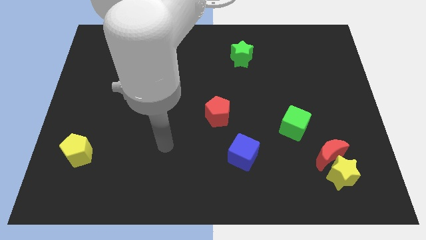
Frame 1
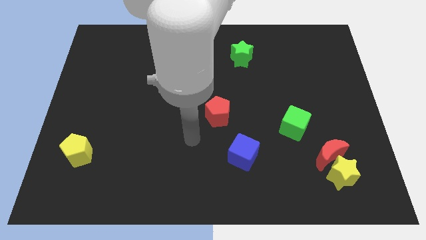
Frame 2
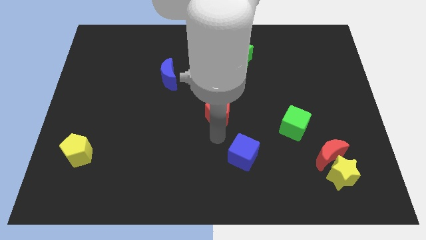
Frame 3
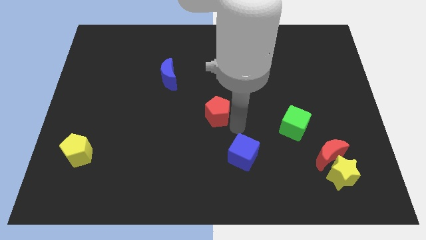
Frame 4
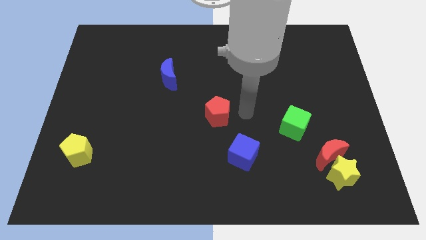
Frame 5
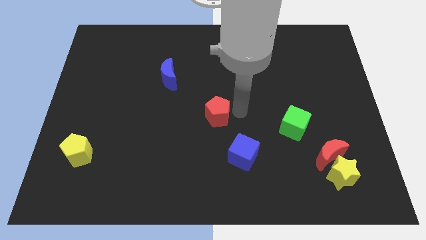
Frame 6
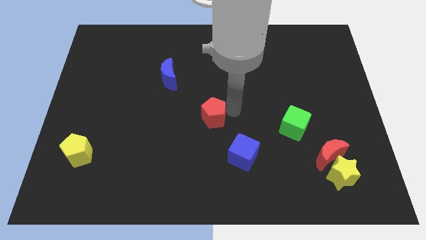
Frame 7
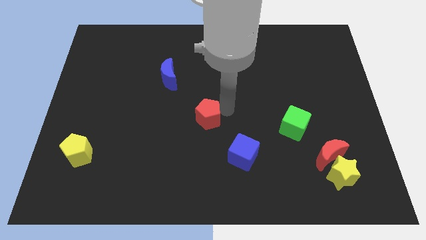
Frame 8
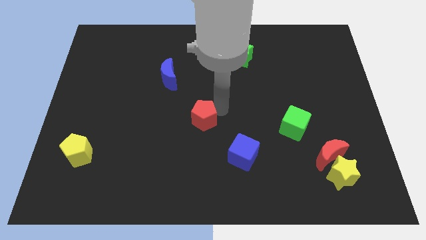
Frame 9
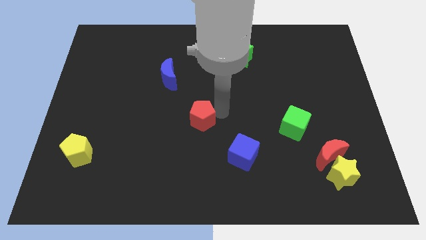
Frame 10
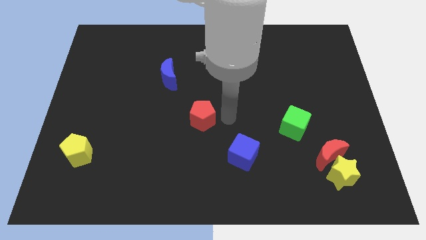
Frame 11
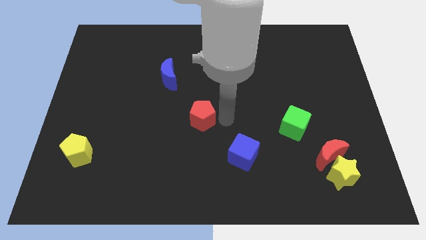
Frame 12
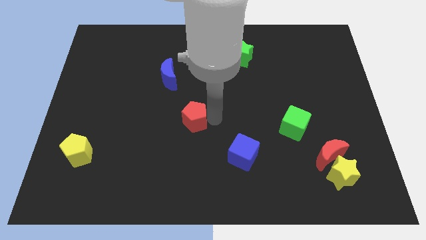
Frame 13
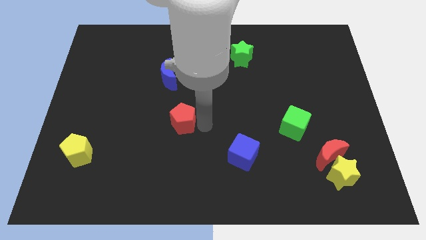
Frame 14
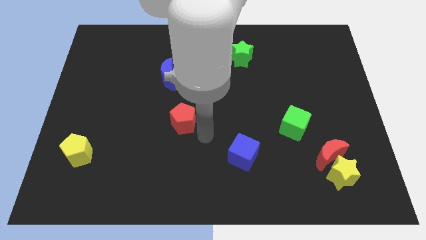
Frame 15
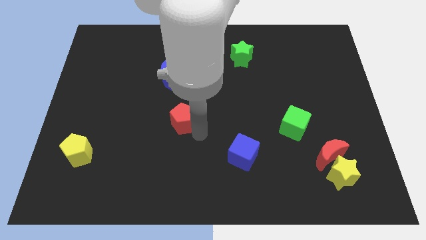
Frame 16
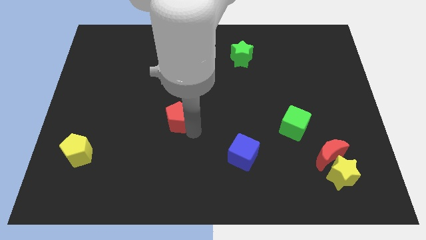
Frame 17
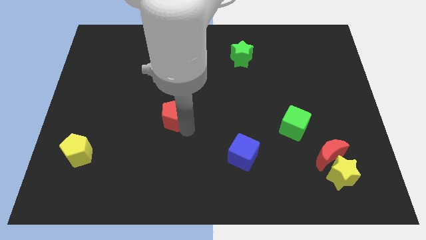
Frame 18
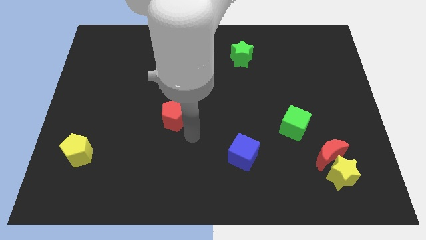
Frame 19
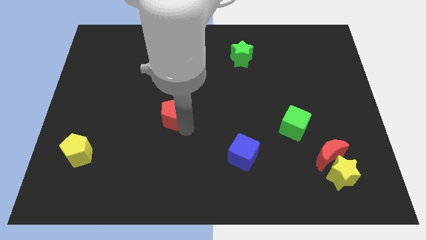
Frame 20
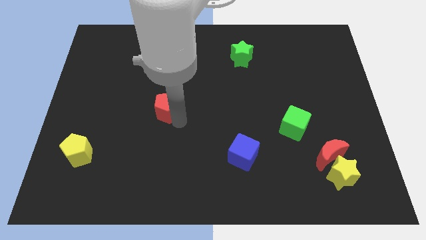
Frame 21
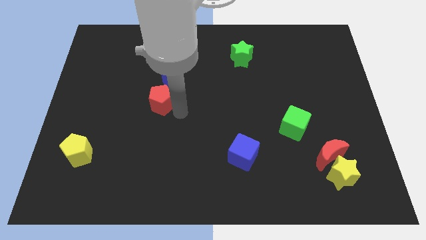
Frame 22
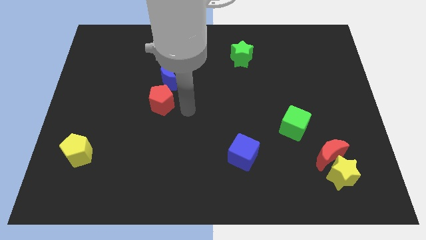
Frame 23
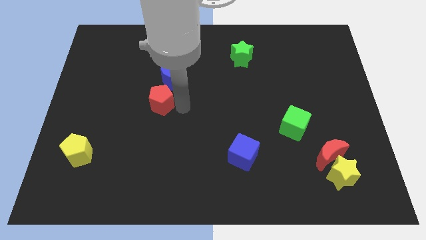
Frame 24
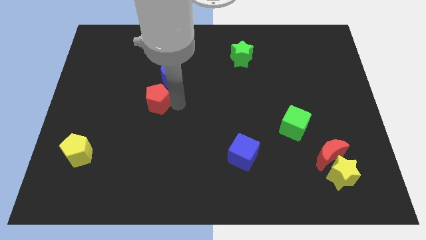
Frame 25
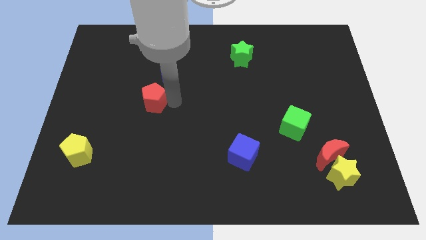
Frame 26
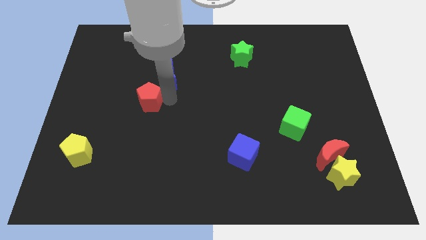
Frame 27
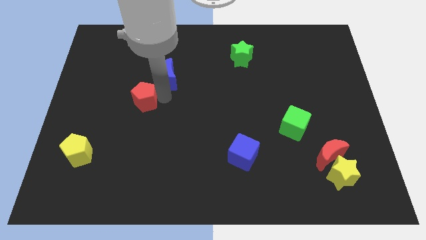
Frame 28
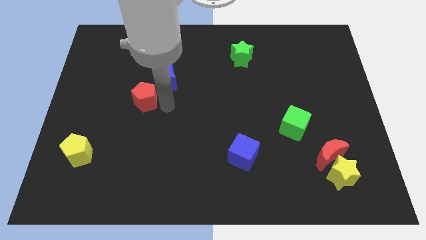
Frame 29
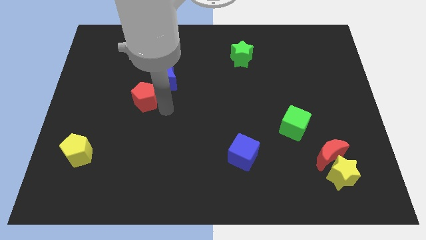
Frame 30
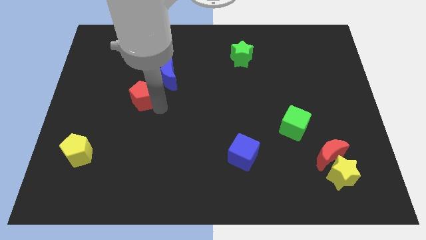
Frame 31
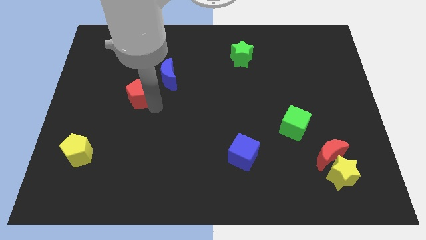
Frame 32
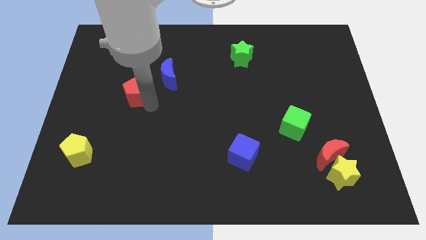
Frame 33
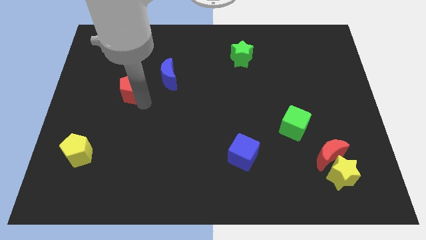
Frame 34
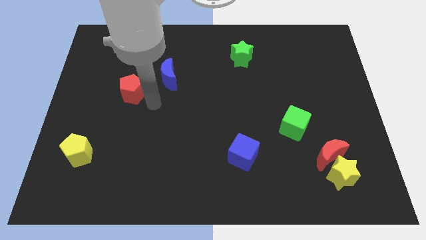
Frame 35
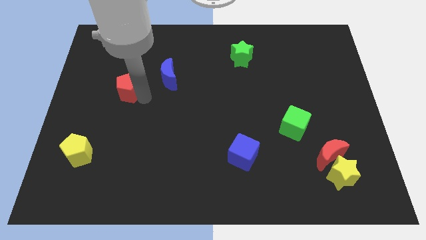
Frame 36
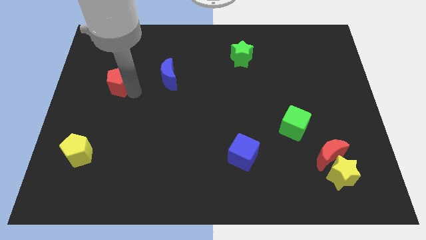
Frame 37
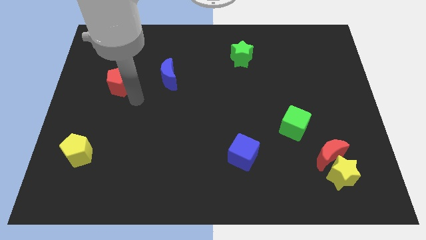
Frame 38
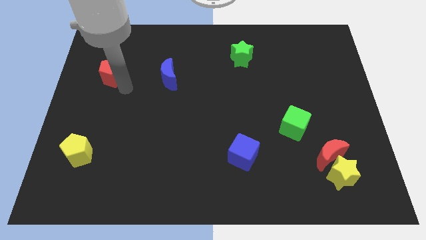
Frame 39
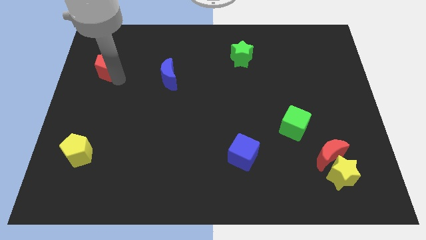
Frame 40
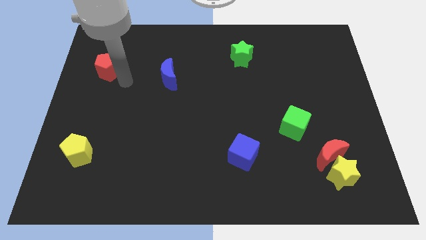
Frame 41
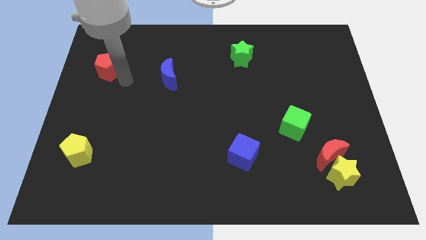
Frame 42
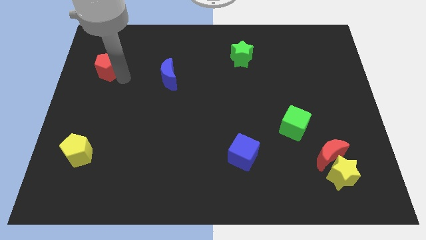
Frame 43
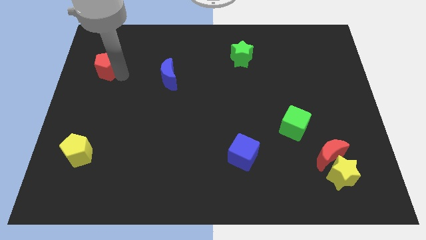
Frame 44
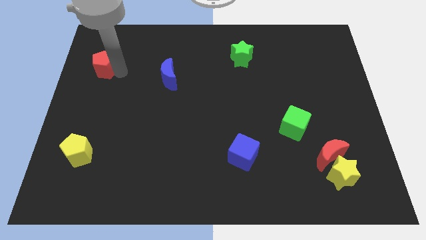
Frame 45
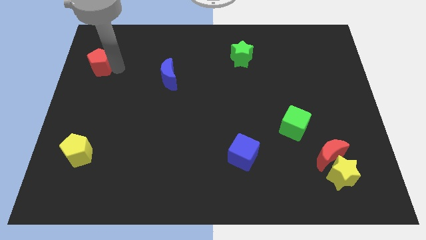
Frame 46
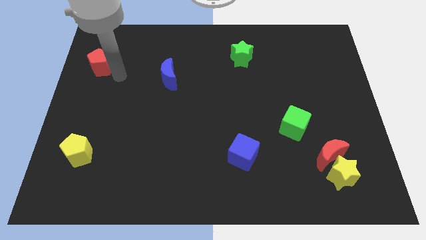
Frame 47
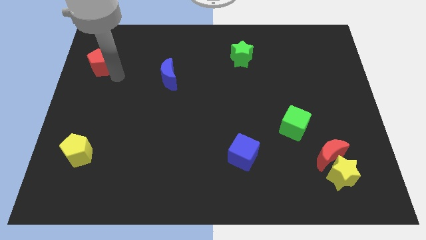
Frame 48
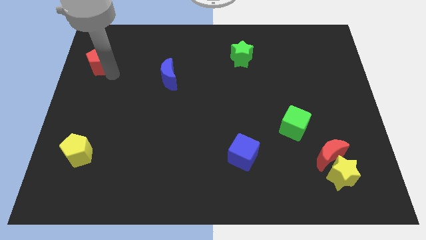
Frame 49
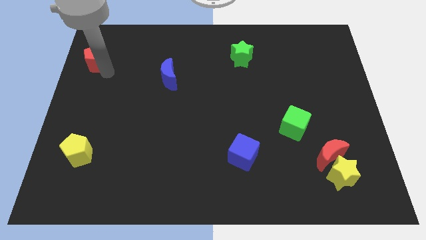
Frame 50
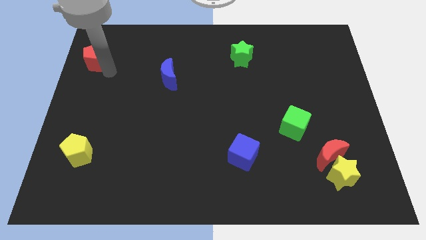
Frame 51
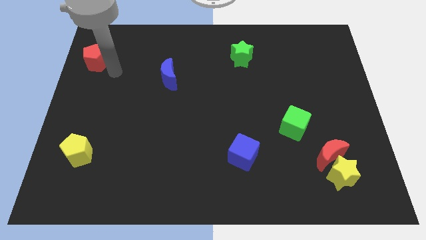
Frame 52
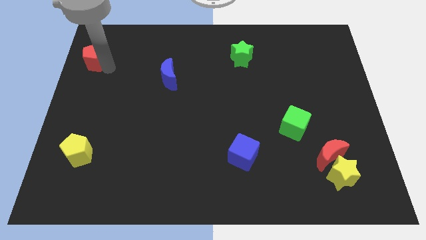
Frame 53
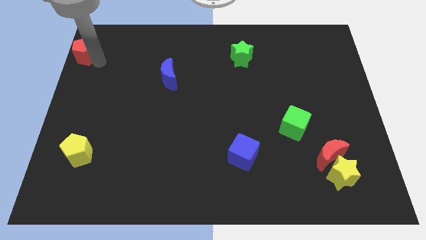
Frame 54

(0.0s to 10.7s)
move the red pentagon to the upper left corner
